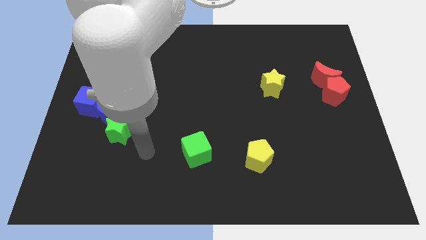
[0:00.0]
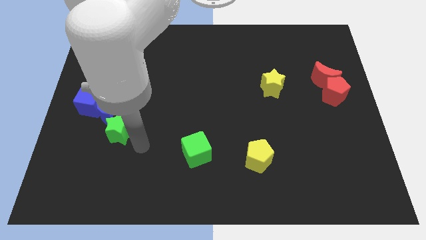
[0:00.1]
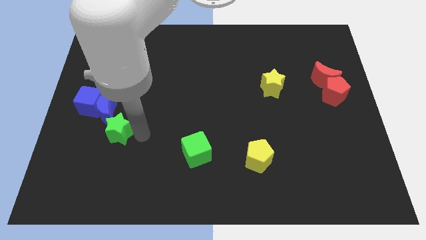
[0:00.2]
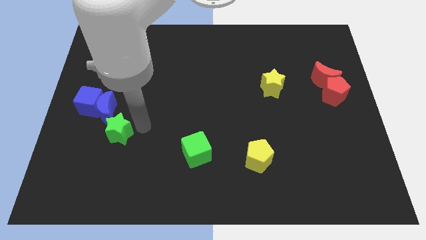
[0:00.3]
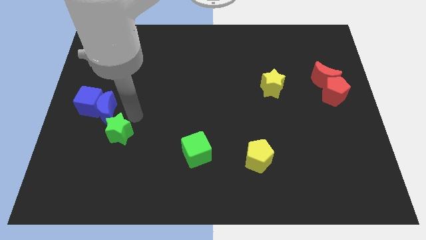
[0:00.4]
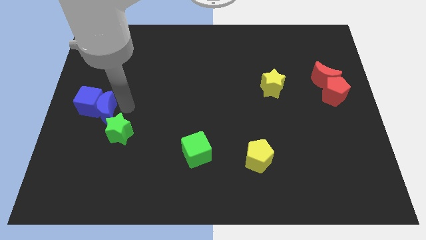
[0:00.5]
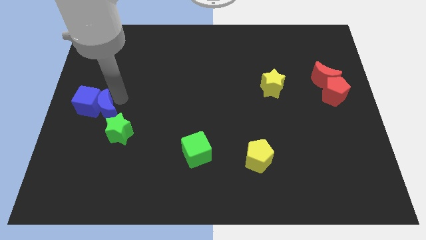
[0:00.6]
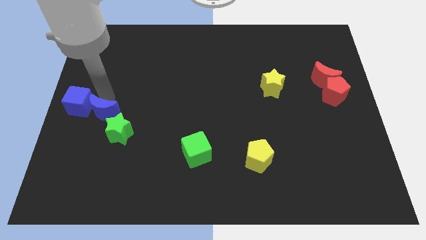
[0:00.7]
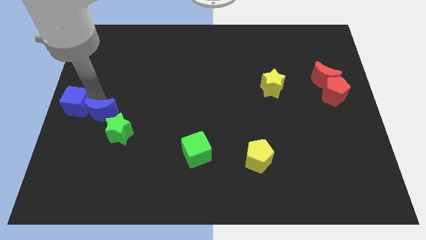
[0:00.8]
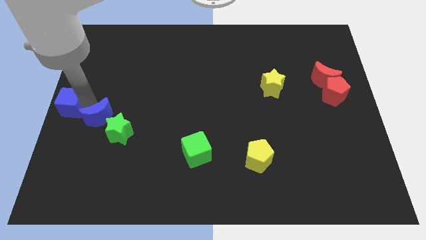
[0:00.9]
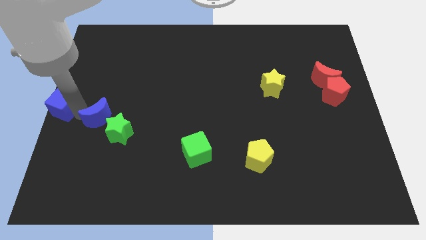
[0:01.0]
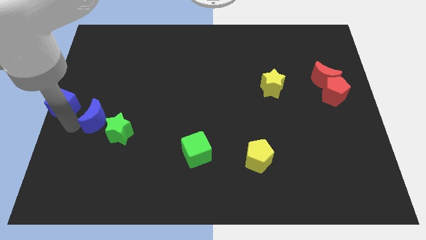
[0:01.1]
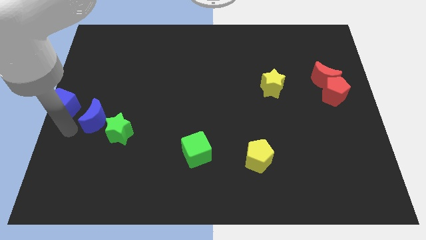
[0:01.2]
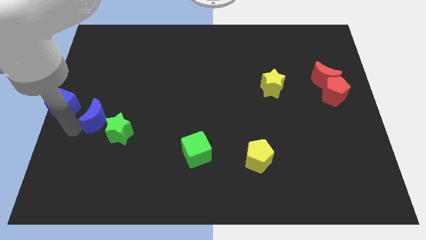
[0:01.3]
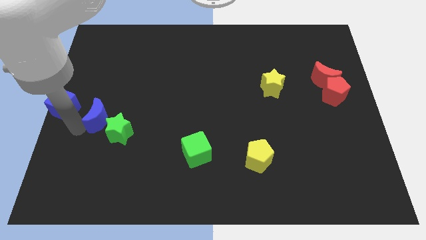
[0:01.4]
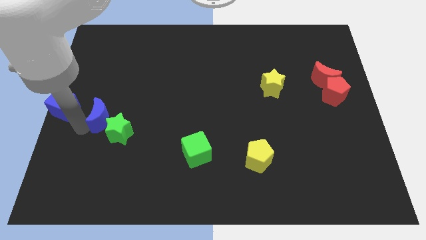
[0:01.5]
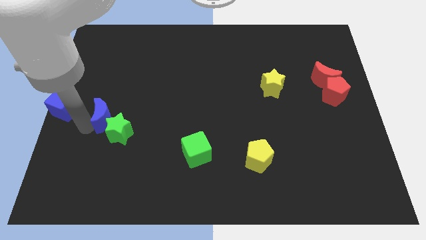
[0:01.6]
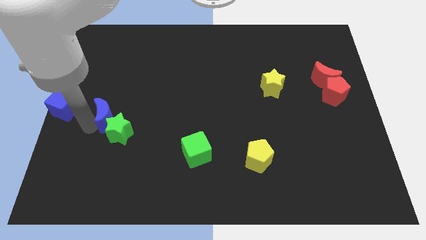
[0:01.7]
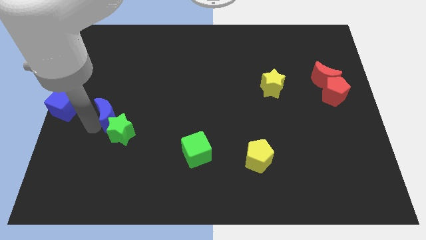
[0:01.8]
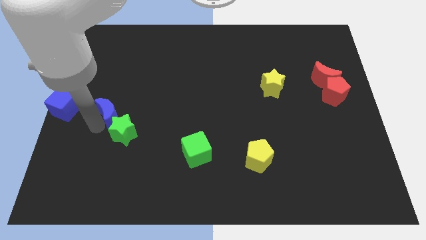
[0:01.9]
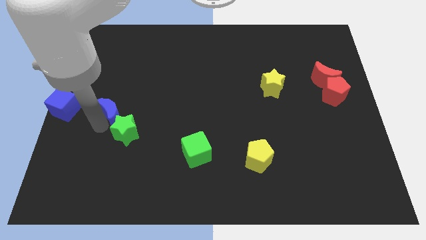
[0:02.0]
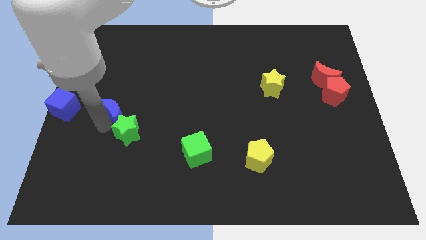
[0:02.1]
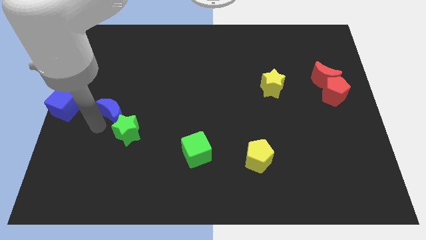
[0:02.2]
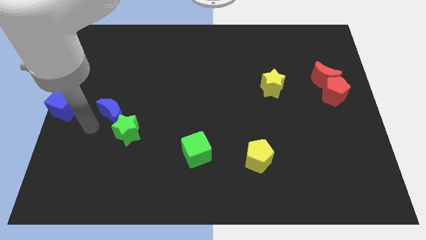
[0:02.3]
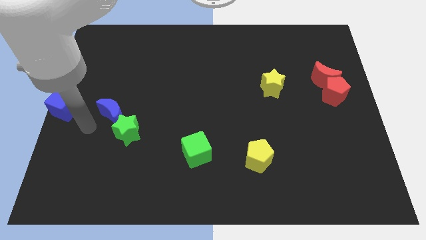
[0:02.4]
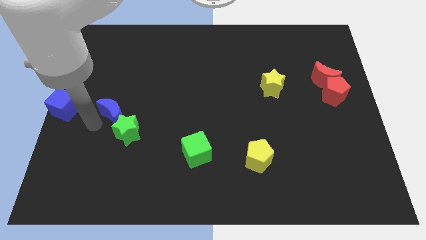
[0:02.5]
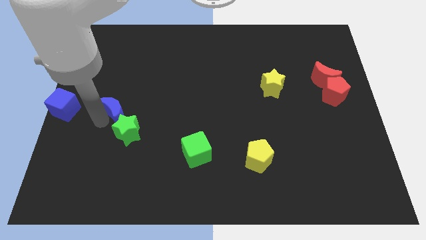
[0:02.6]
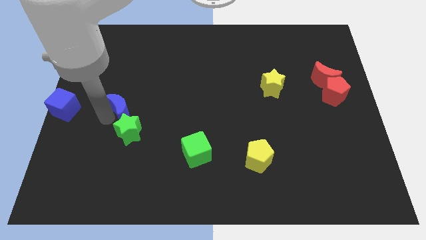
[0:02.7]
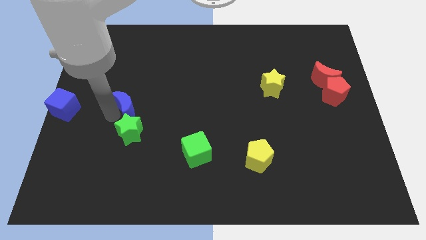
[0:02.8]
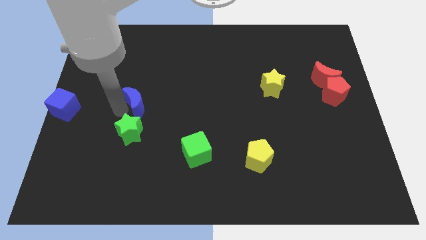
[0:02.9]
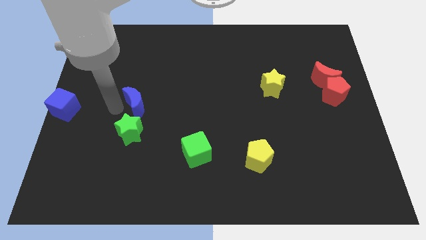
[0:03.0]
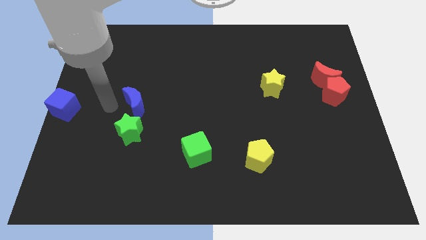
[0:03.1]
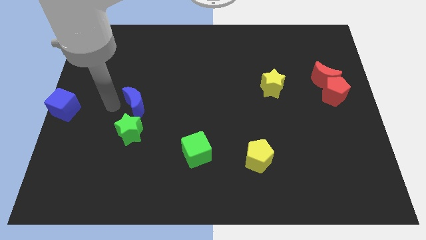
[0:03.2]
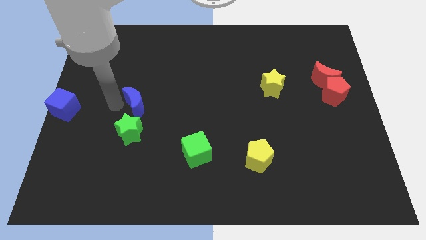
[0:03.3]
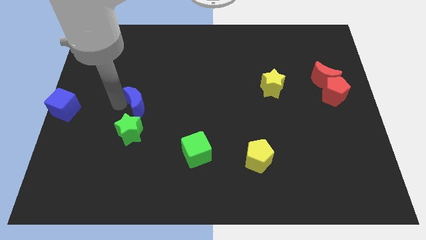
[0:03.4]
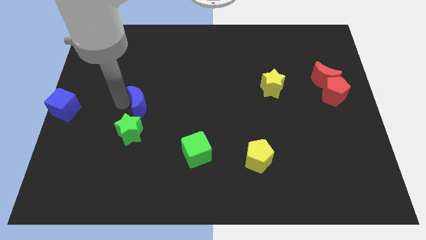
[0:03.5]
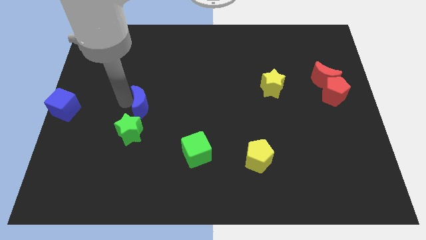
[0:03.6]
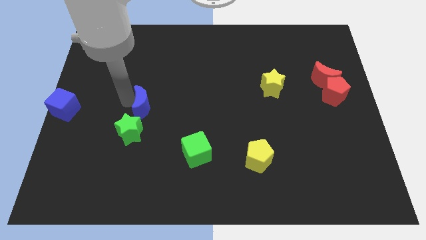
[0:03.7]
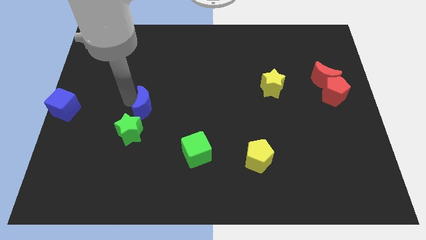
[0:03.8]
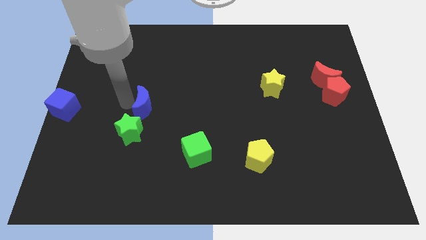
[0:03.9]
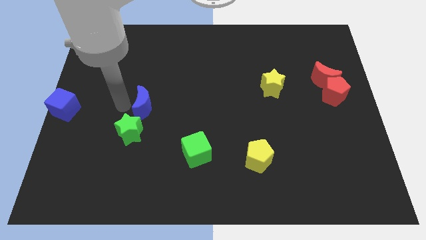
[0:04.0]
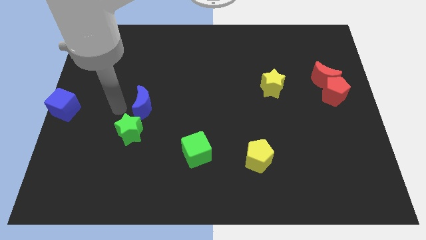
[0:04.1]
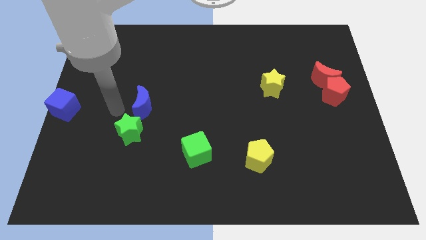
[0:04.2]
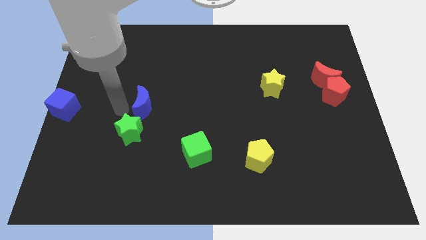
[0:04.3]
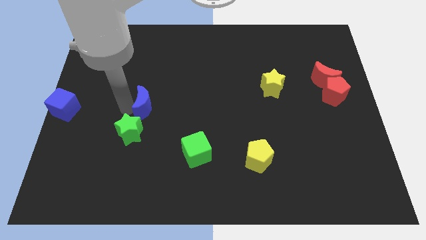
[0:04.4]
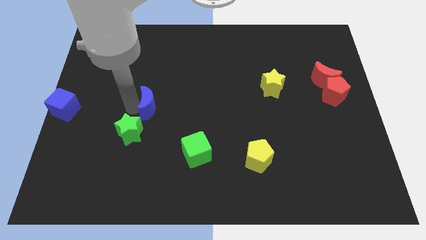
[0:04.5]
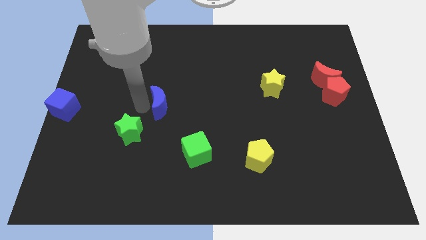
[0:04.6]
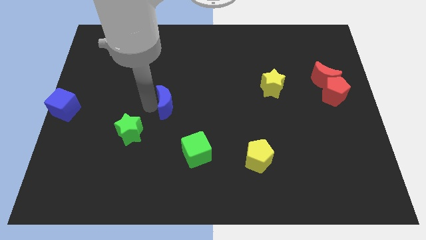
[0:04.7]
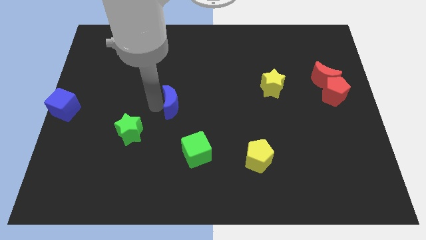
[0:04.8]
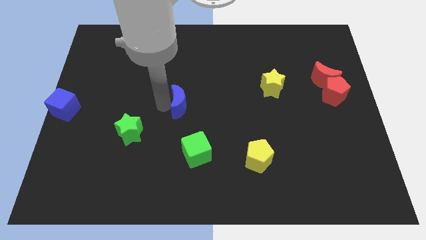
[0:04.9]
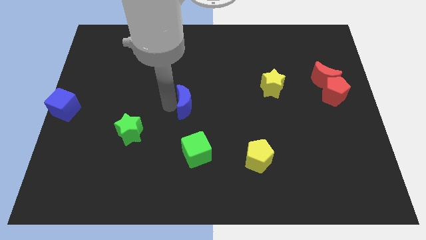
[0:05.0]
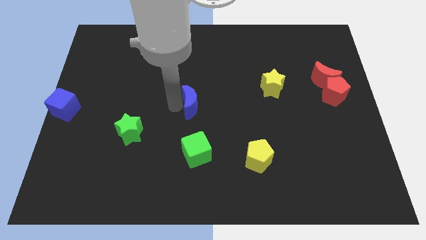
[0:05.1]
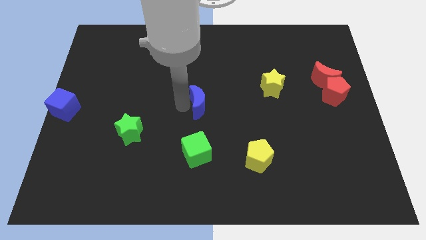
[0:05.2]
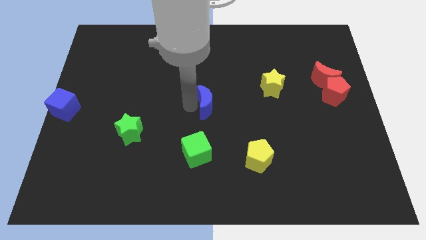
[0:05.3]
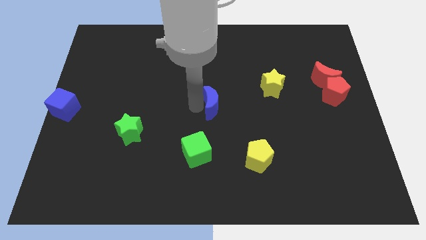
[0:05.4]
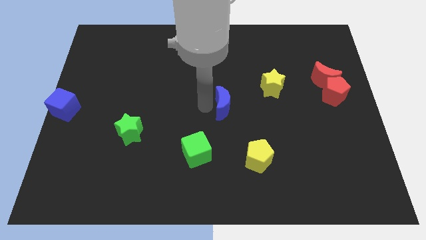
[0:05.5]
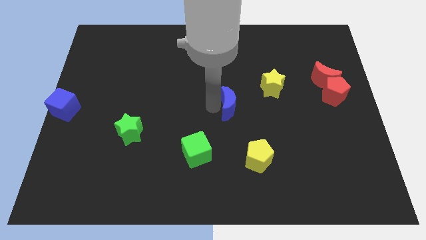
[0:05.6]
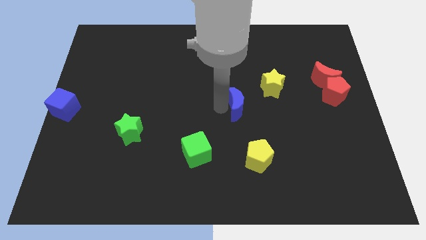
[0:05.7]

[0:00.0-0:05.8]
slide the blue moon diagonally down and to the left of the yellow star

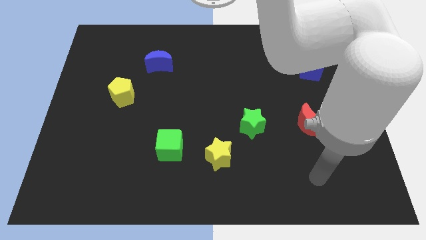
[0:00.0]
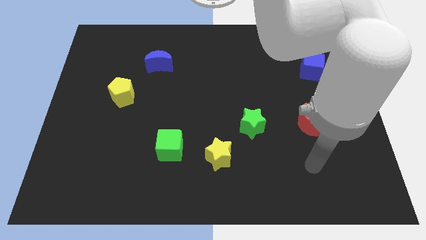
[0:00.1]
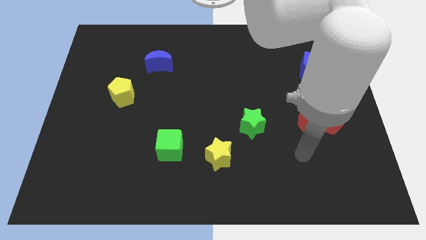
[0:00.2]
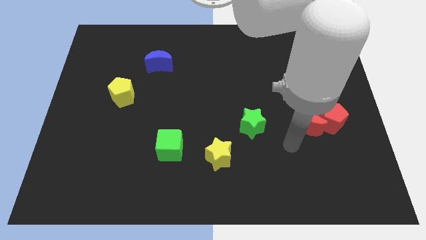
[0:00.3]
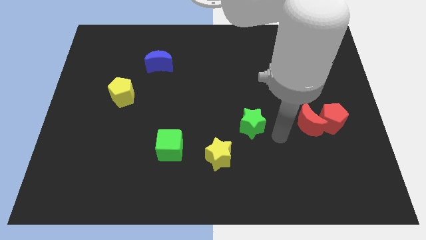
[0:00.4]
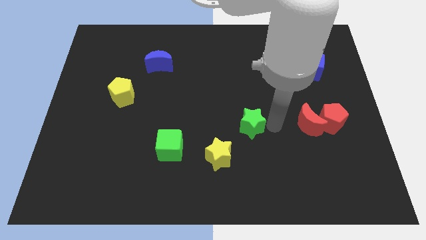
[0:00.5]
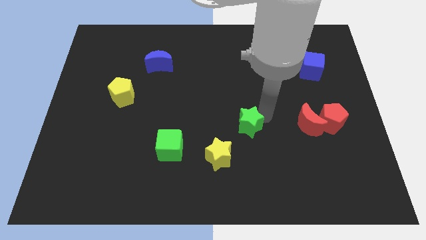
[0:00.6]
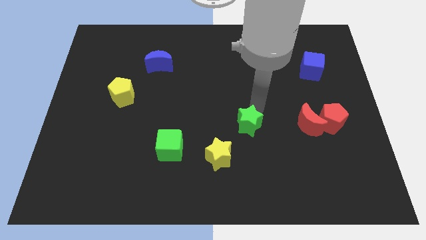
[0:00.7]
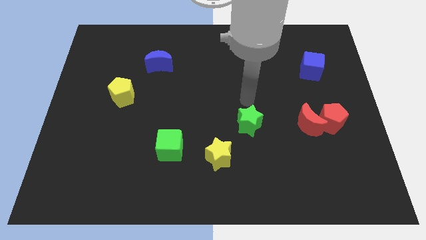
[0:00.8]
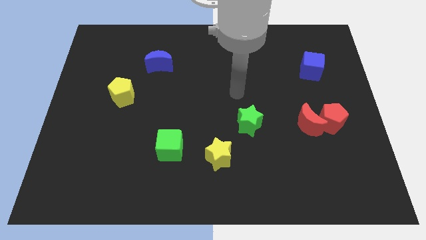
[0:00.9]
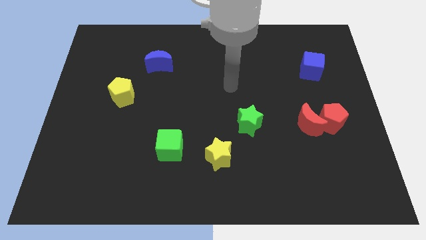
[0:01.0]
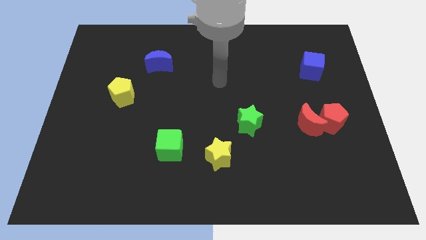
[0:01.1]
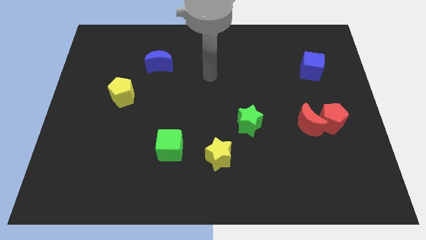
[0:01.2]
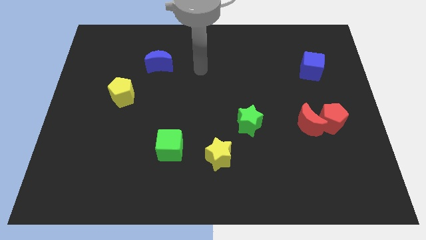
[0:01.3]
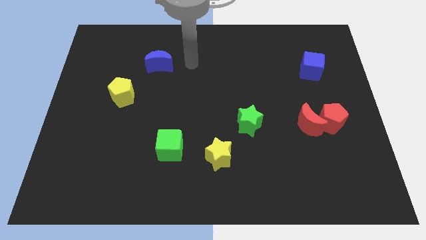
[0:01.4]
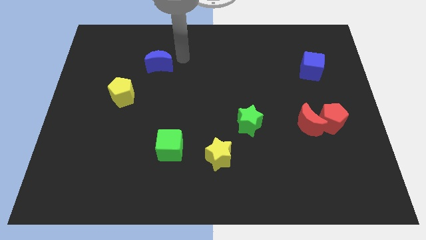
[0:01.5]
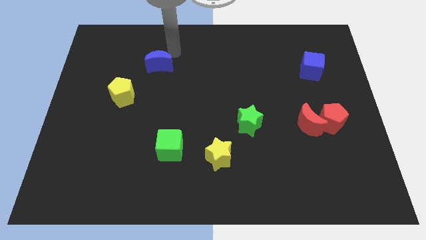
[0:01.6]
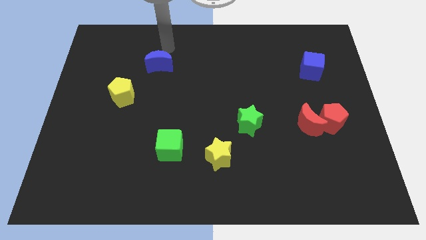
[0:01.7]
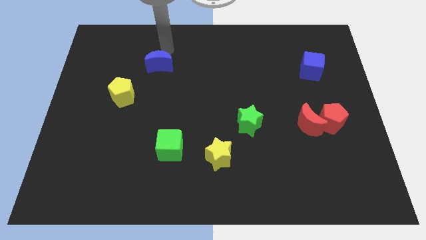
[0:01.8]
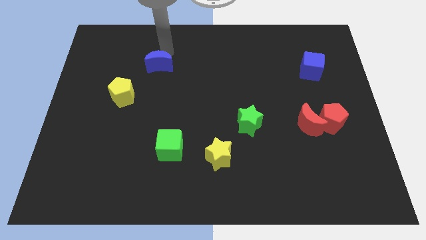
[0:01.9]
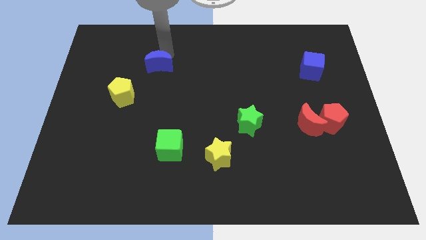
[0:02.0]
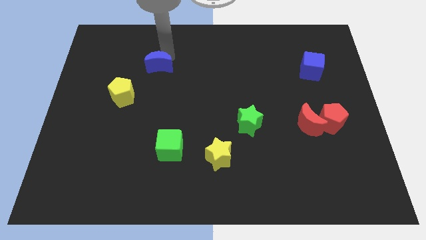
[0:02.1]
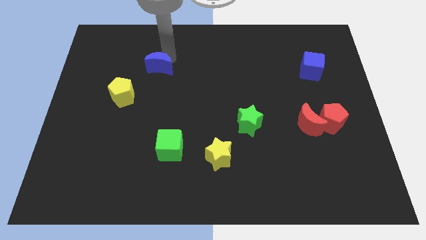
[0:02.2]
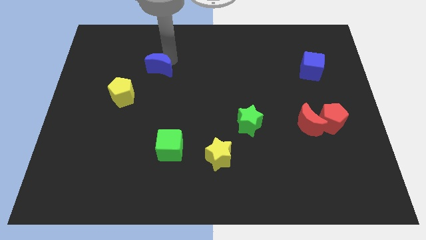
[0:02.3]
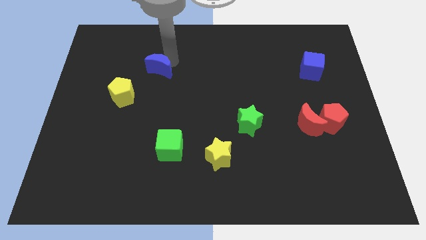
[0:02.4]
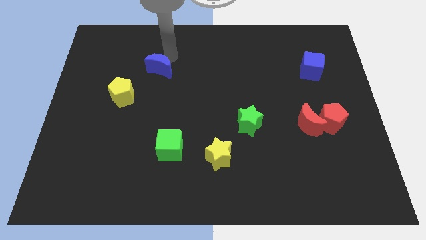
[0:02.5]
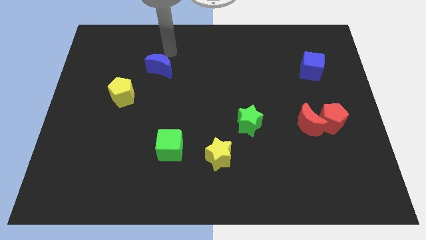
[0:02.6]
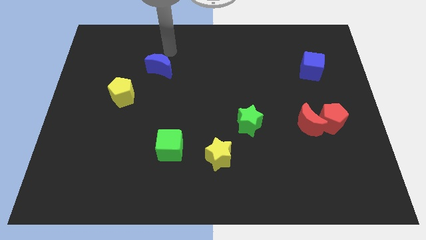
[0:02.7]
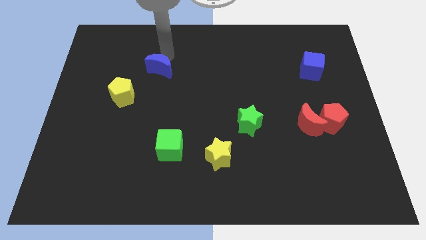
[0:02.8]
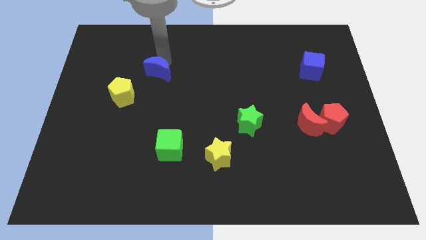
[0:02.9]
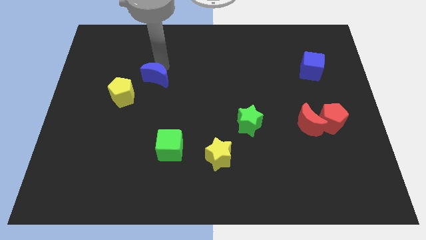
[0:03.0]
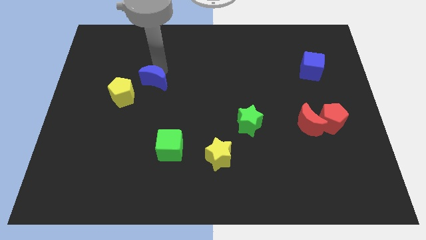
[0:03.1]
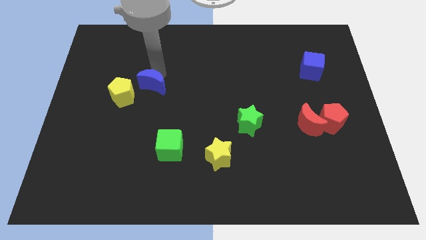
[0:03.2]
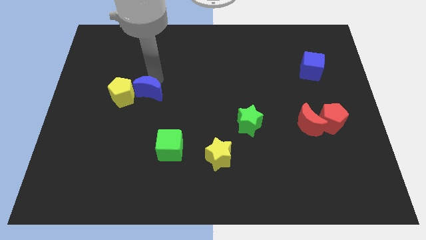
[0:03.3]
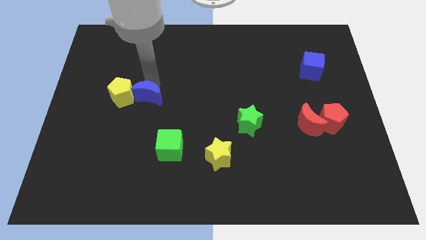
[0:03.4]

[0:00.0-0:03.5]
push the blue moon diagonally down and to the right of the yellow pentagon
